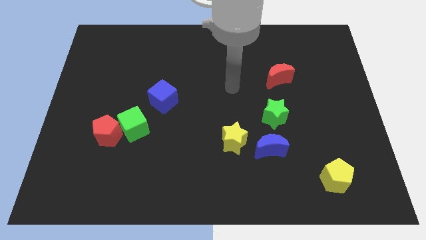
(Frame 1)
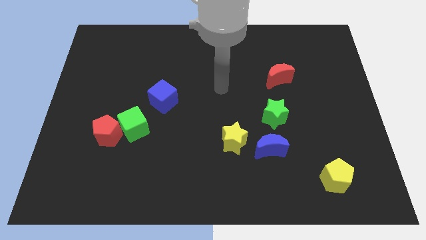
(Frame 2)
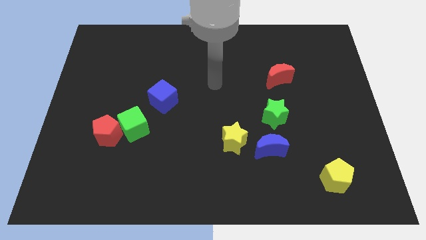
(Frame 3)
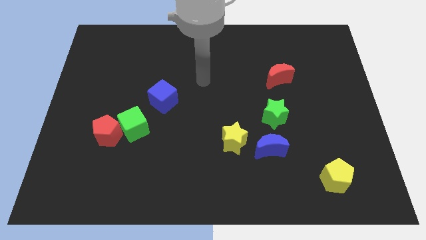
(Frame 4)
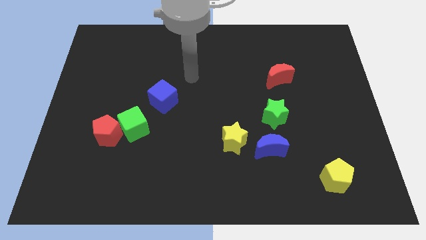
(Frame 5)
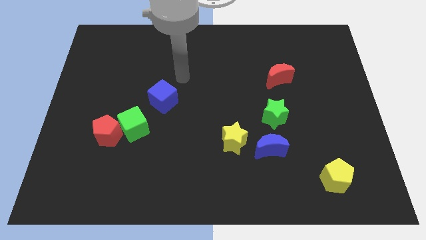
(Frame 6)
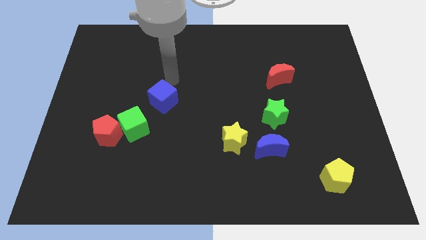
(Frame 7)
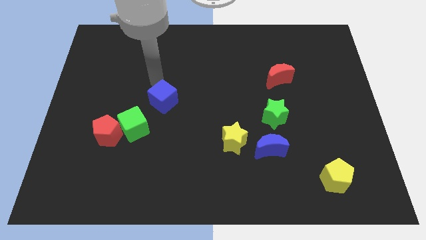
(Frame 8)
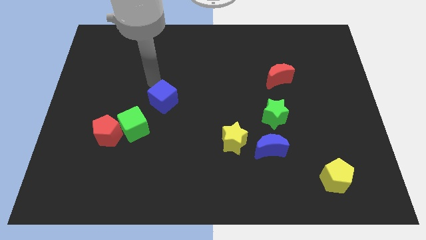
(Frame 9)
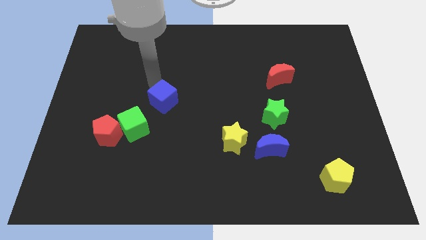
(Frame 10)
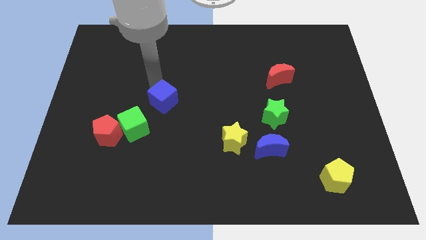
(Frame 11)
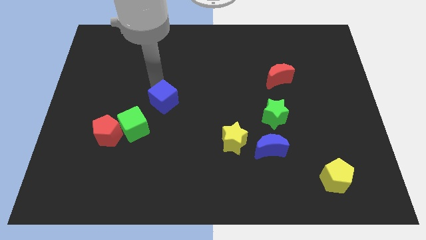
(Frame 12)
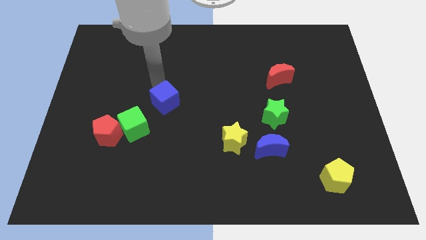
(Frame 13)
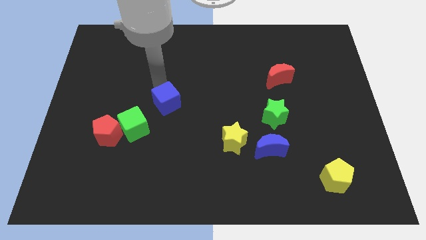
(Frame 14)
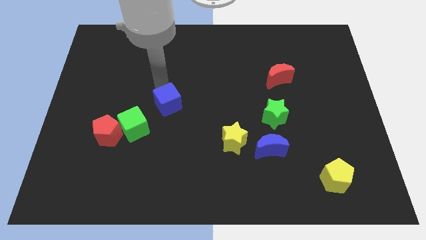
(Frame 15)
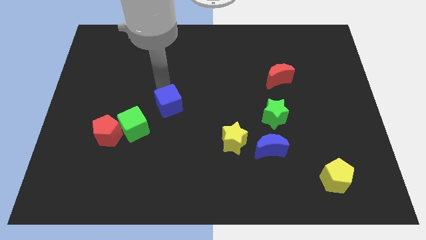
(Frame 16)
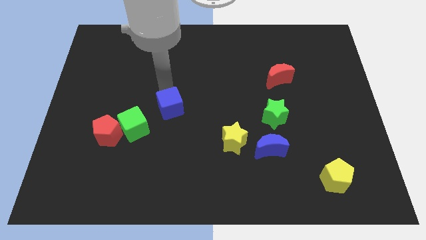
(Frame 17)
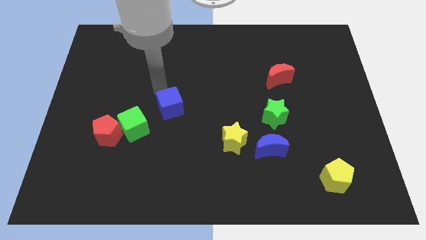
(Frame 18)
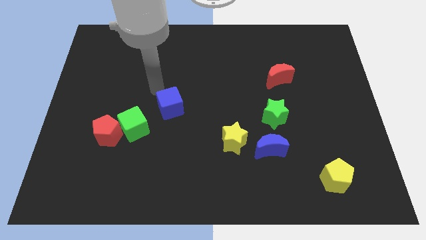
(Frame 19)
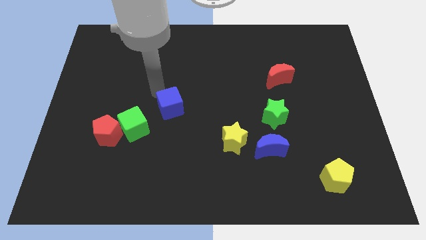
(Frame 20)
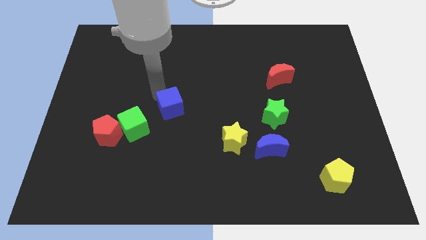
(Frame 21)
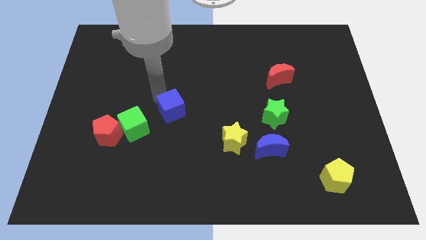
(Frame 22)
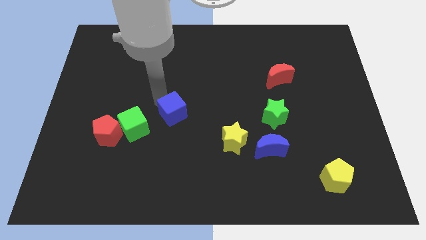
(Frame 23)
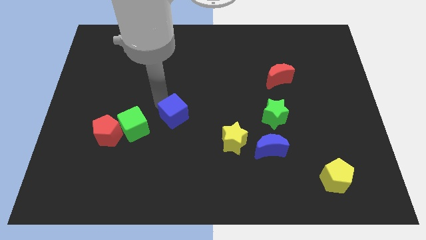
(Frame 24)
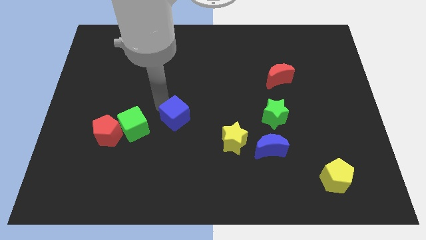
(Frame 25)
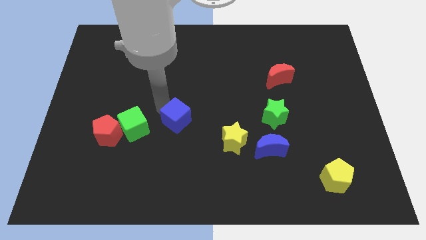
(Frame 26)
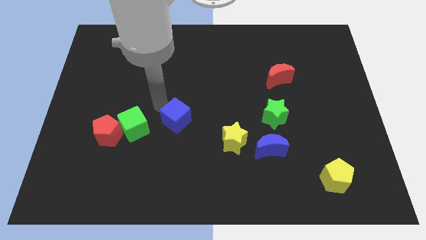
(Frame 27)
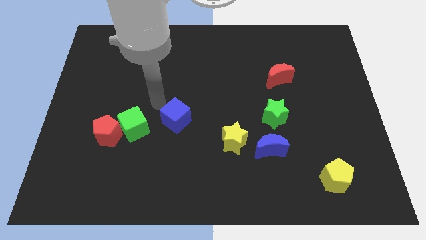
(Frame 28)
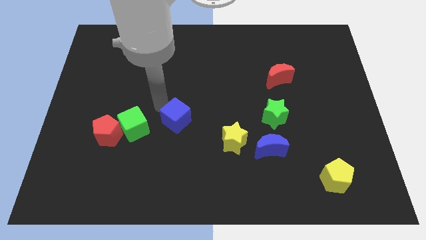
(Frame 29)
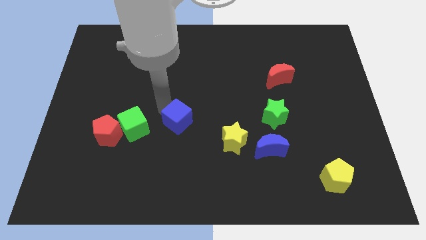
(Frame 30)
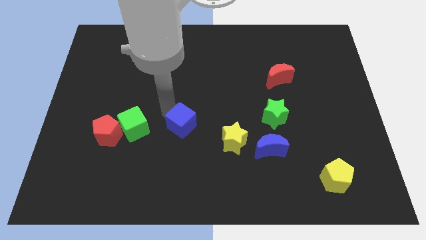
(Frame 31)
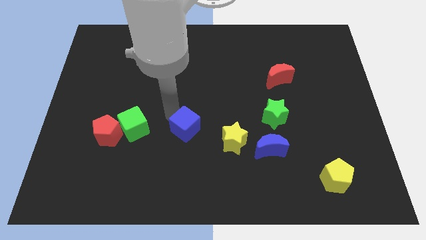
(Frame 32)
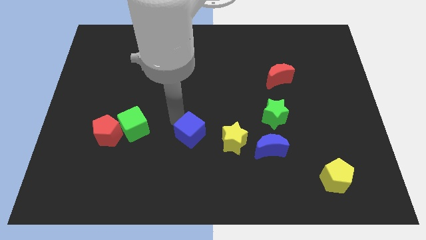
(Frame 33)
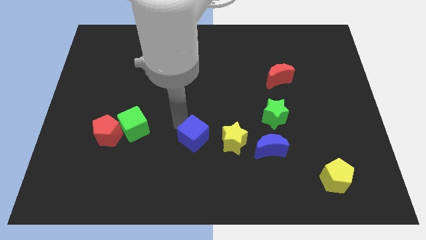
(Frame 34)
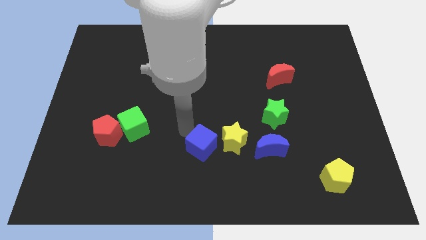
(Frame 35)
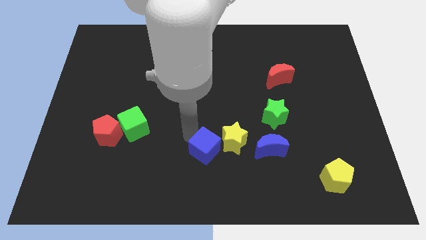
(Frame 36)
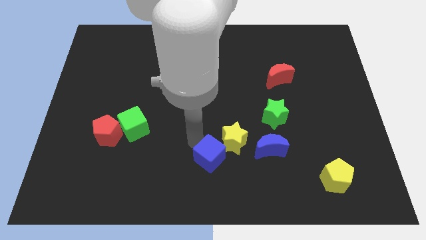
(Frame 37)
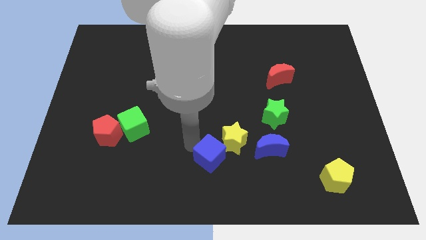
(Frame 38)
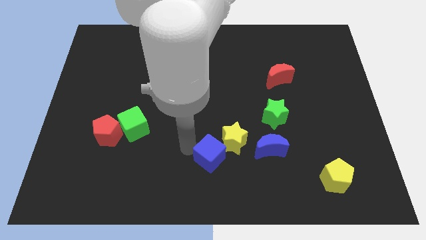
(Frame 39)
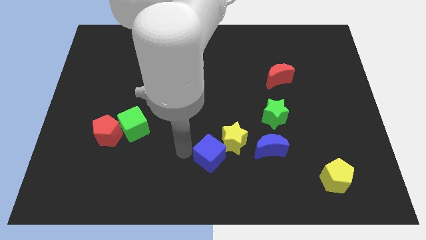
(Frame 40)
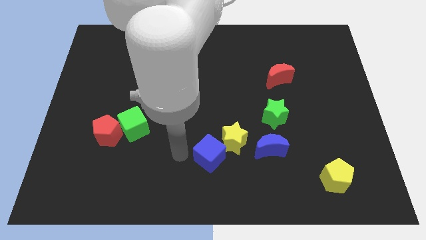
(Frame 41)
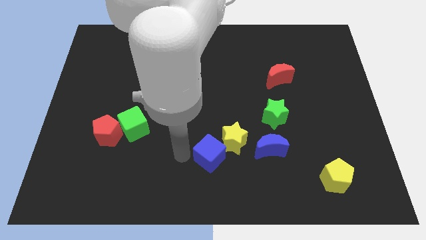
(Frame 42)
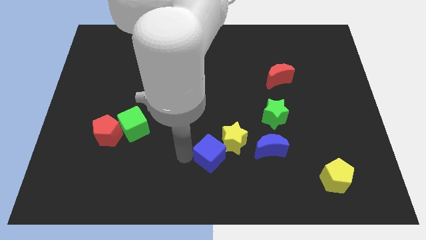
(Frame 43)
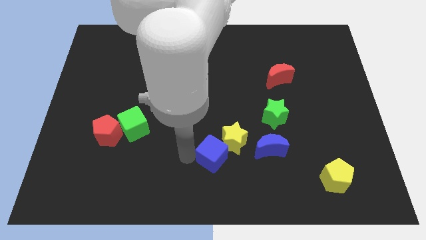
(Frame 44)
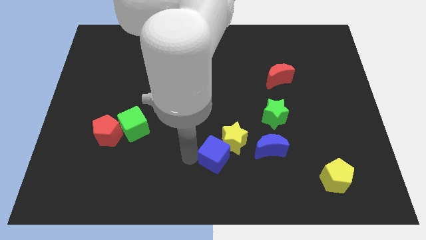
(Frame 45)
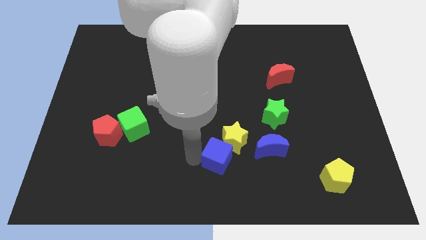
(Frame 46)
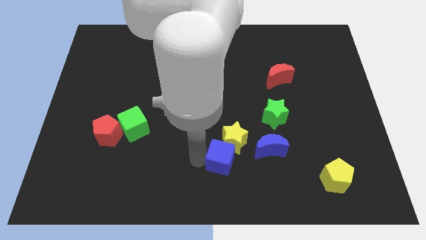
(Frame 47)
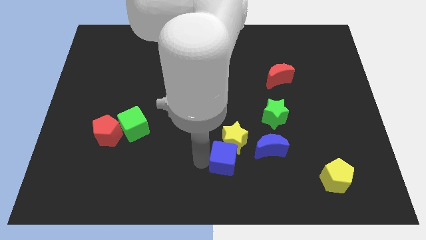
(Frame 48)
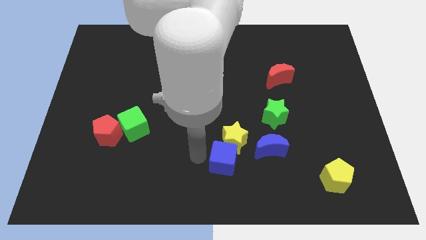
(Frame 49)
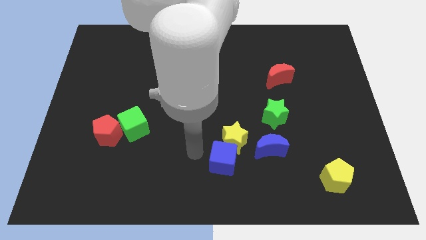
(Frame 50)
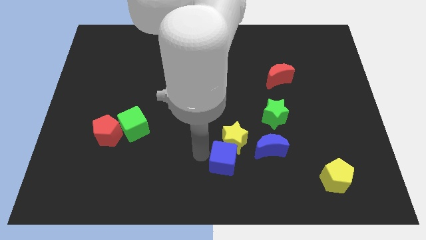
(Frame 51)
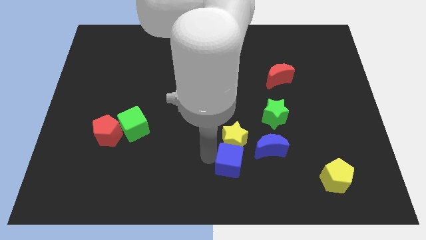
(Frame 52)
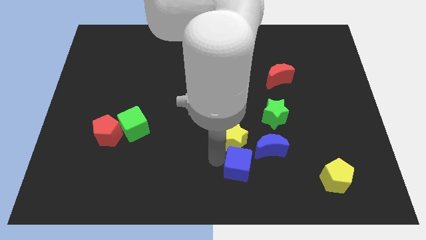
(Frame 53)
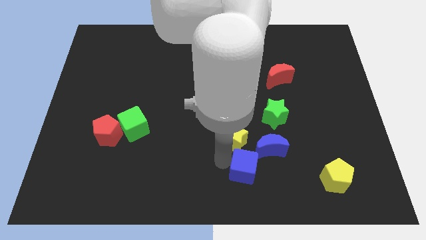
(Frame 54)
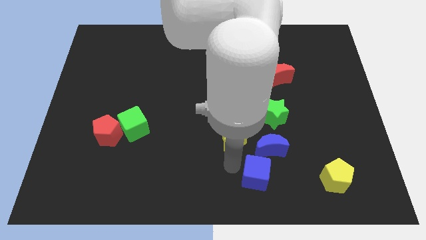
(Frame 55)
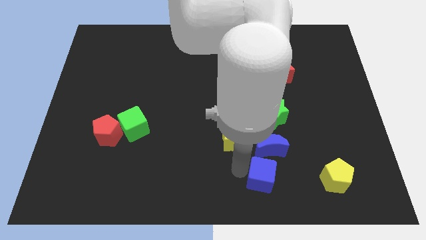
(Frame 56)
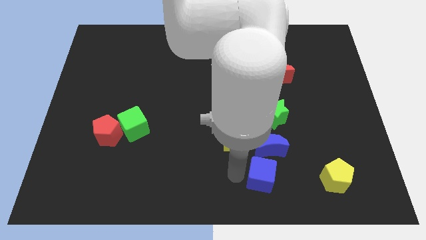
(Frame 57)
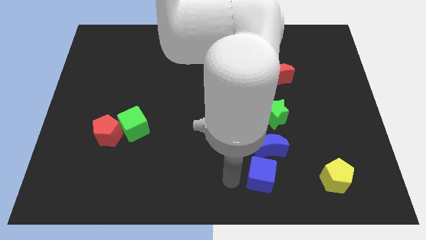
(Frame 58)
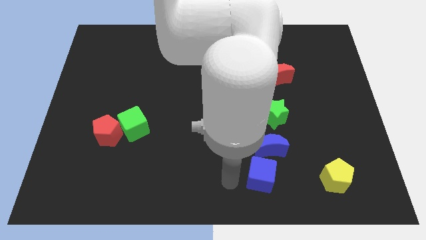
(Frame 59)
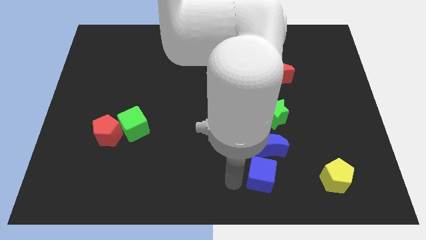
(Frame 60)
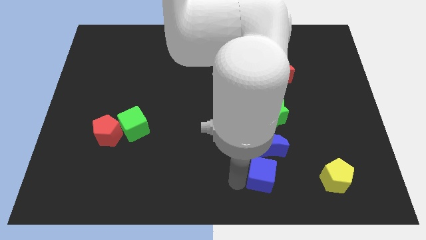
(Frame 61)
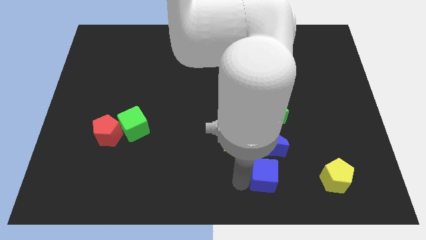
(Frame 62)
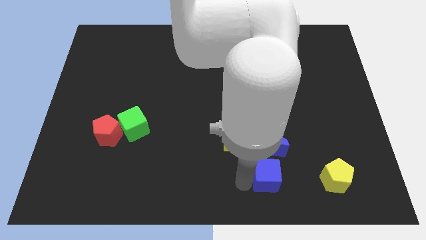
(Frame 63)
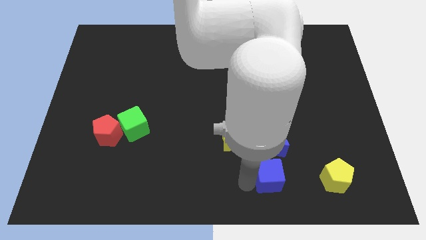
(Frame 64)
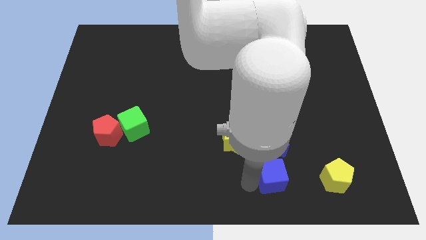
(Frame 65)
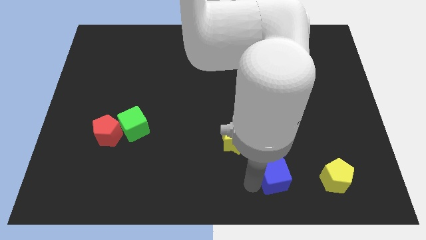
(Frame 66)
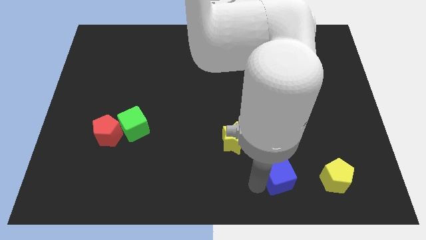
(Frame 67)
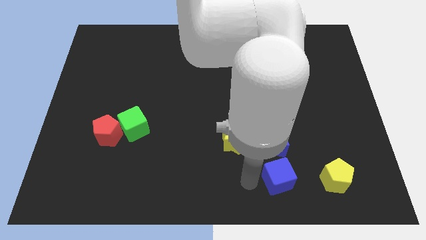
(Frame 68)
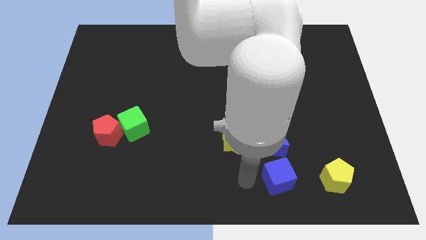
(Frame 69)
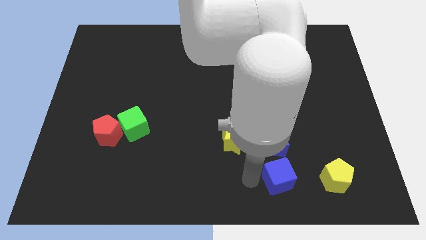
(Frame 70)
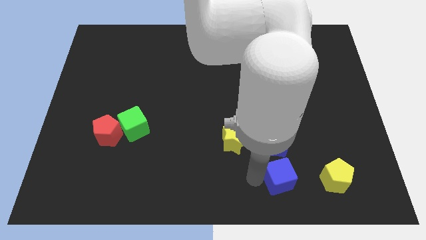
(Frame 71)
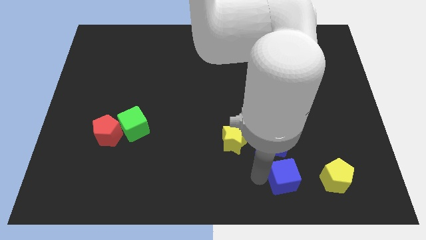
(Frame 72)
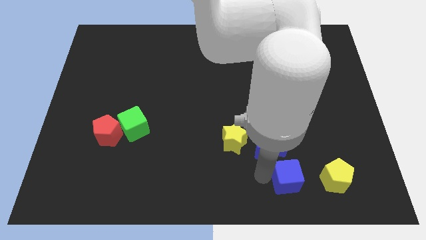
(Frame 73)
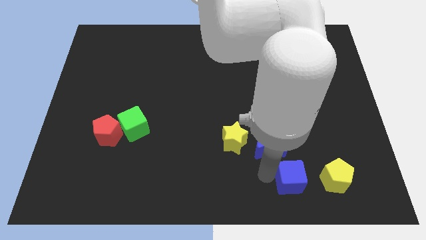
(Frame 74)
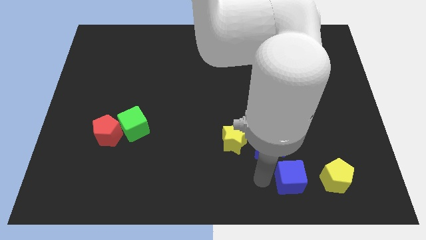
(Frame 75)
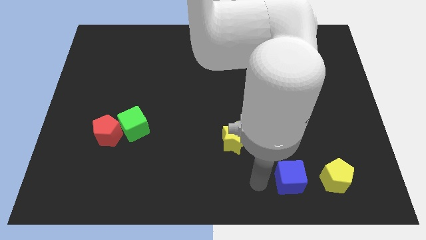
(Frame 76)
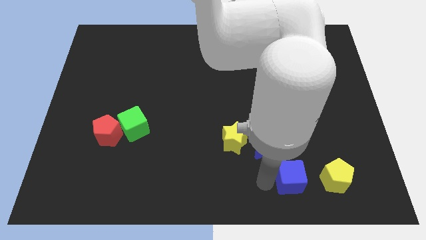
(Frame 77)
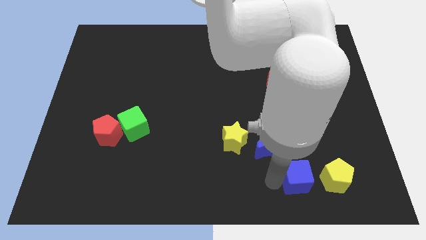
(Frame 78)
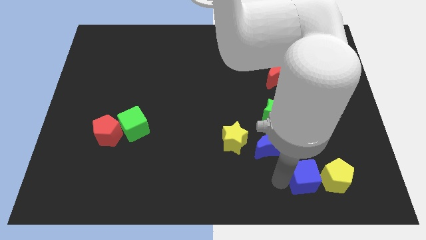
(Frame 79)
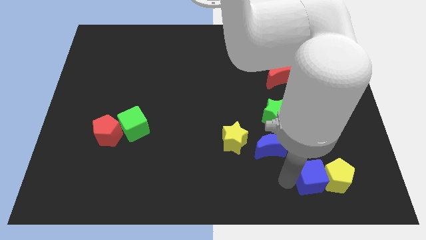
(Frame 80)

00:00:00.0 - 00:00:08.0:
move the blue cube to the yellow pentagon
